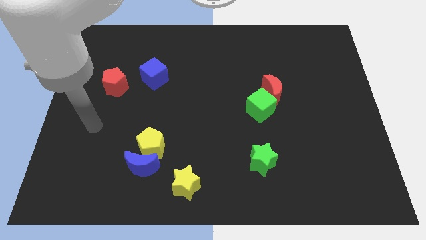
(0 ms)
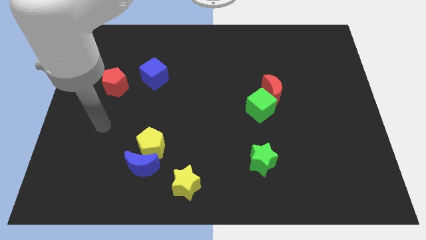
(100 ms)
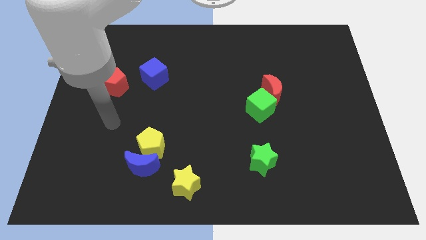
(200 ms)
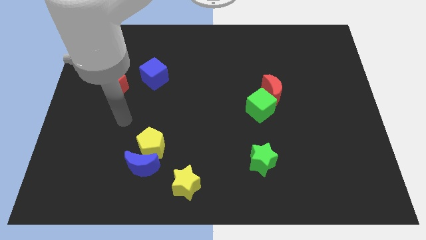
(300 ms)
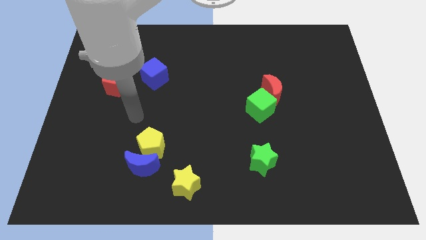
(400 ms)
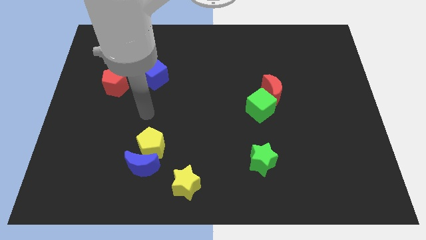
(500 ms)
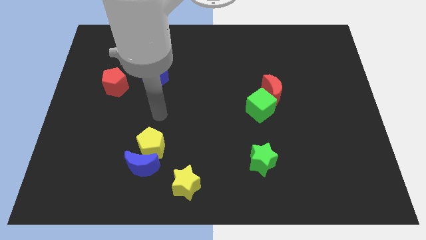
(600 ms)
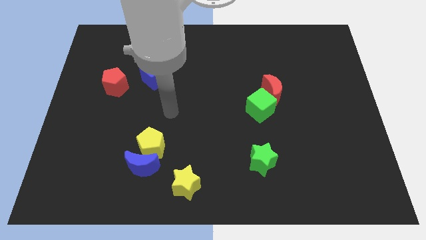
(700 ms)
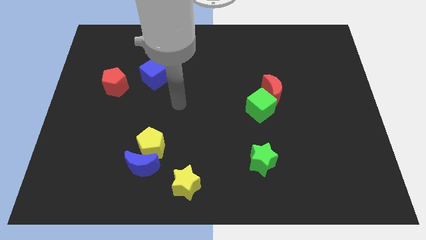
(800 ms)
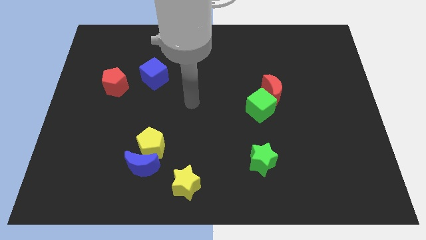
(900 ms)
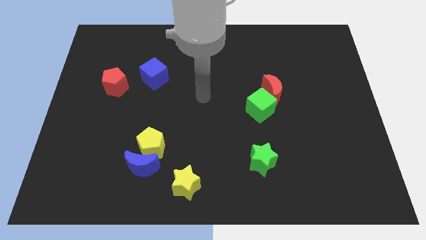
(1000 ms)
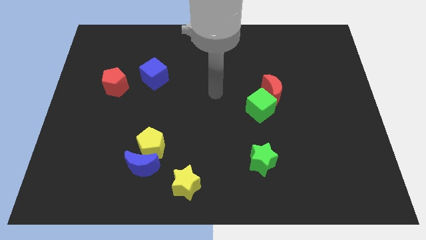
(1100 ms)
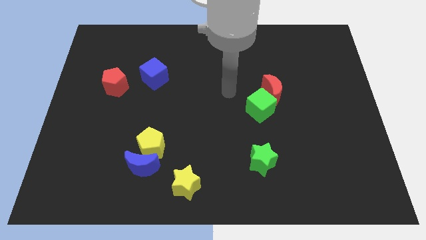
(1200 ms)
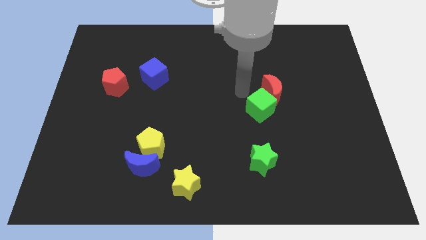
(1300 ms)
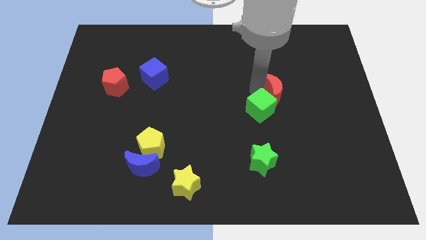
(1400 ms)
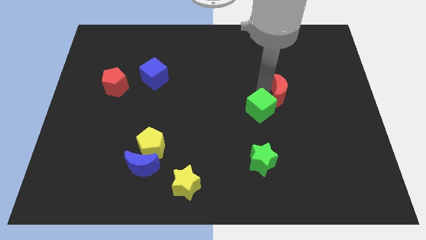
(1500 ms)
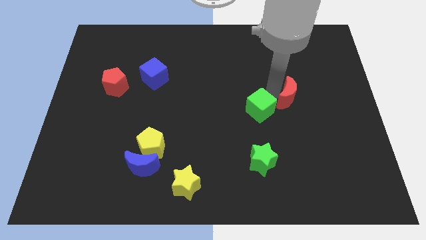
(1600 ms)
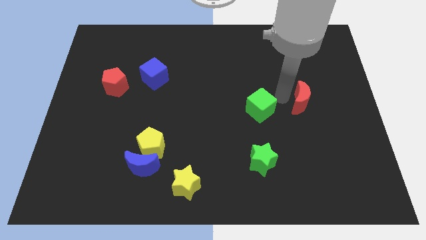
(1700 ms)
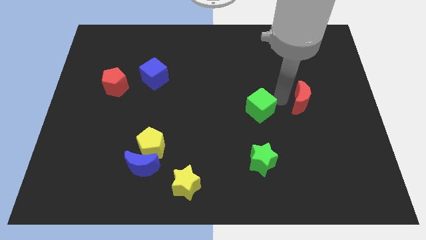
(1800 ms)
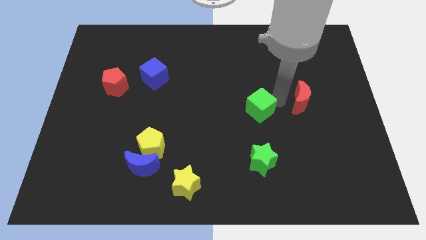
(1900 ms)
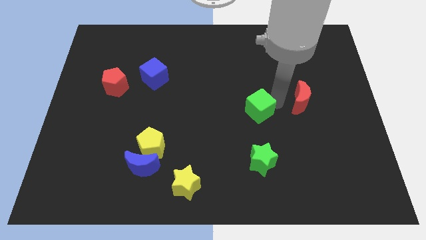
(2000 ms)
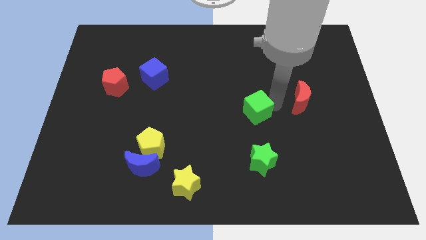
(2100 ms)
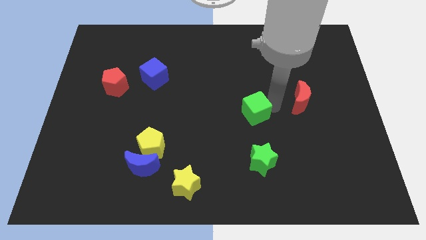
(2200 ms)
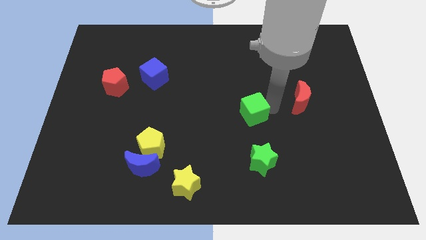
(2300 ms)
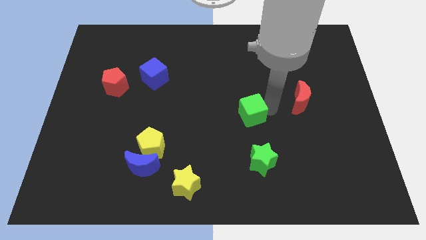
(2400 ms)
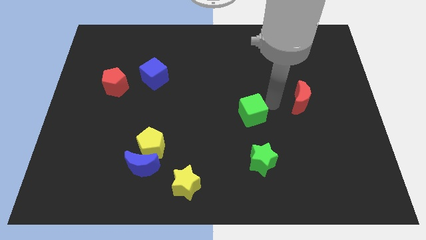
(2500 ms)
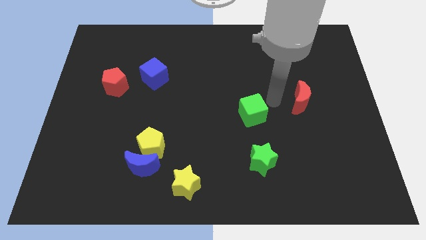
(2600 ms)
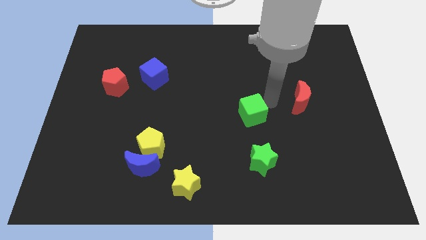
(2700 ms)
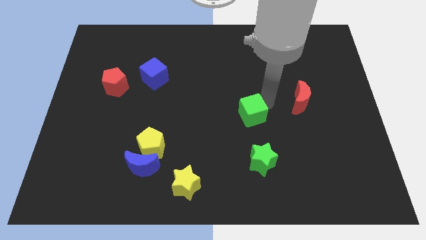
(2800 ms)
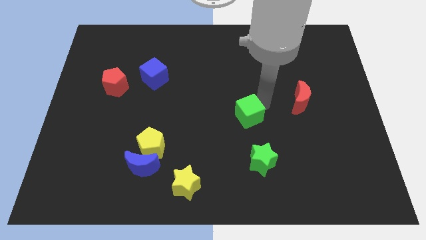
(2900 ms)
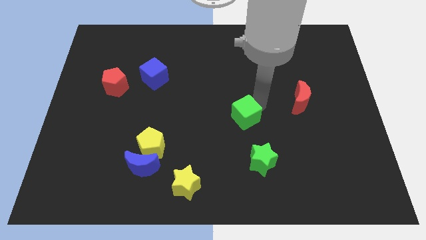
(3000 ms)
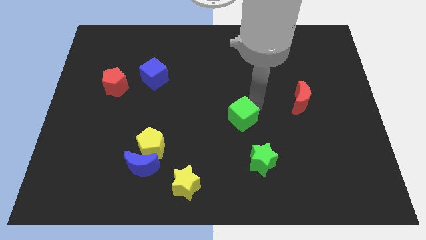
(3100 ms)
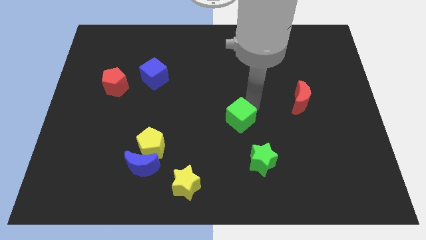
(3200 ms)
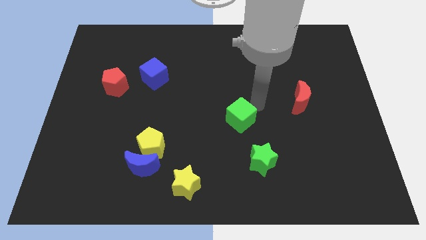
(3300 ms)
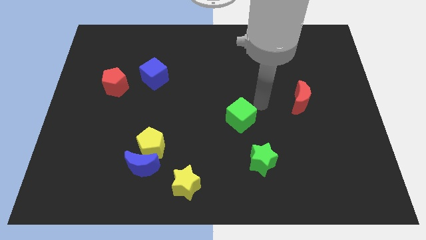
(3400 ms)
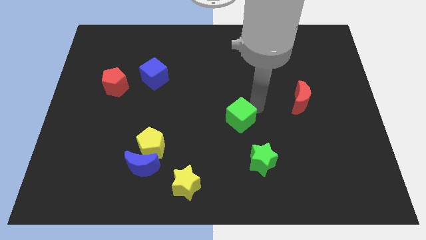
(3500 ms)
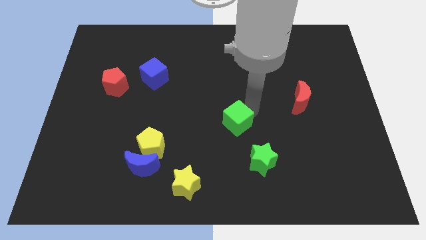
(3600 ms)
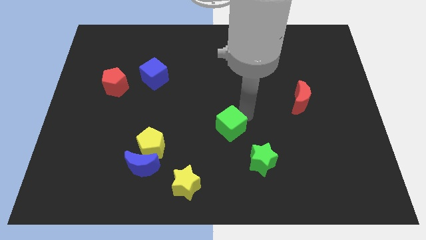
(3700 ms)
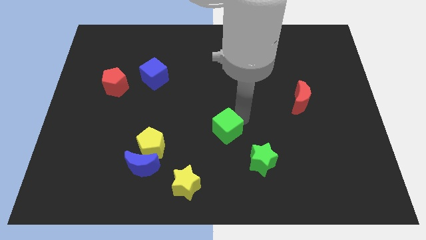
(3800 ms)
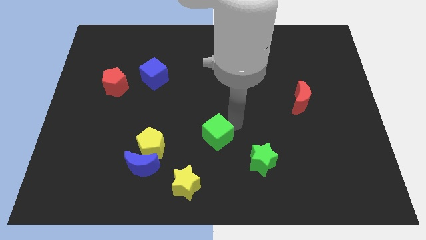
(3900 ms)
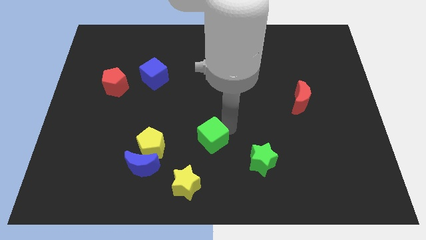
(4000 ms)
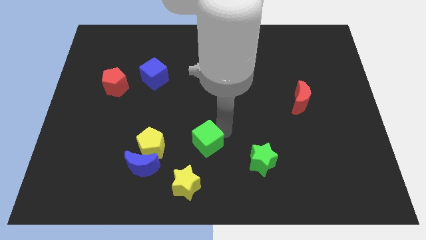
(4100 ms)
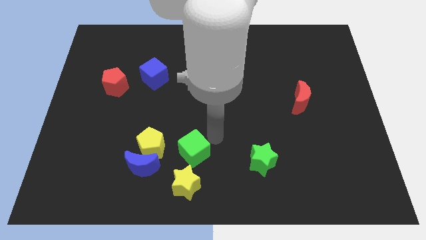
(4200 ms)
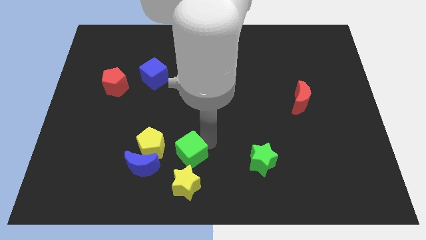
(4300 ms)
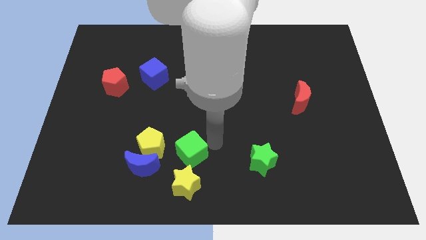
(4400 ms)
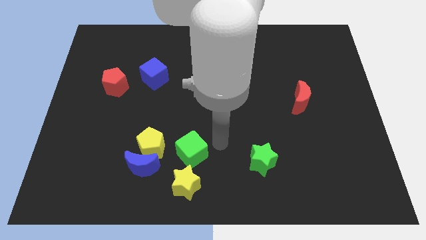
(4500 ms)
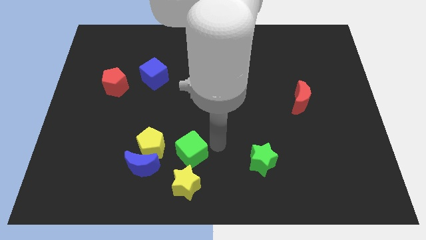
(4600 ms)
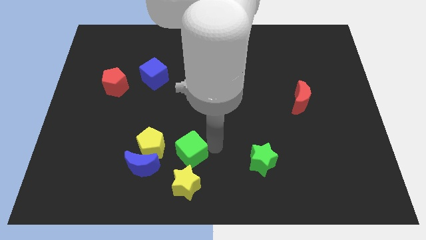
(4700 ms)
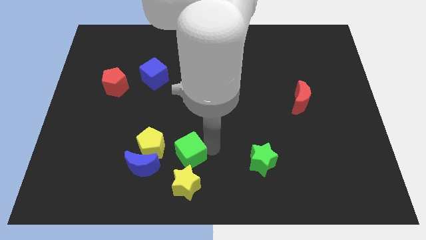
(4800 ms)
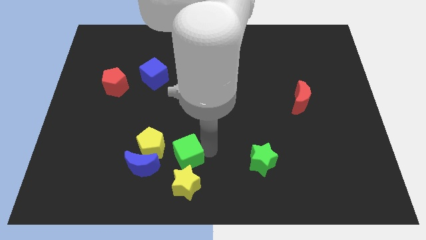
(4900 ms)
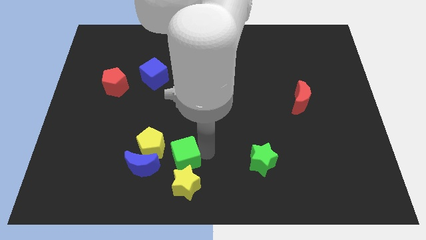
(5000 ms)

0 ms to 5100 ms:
put the green cube to the top left of the yellow star

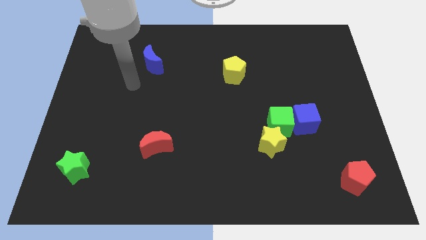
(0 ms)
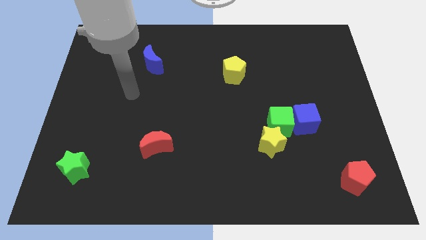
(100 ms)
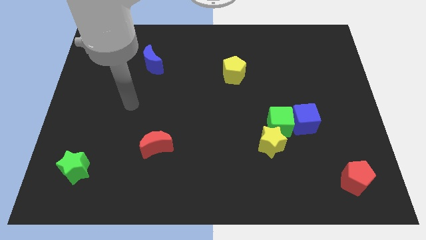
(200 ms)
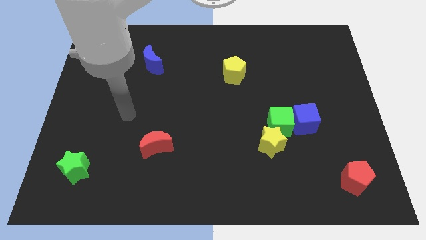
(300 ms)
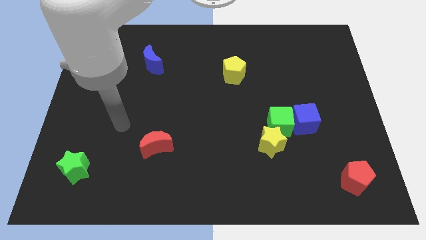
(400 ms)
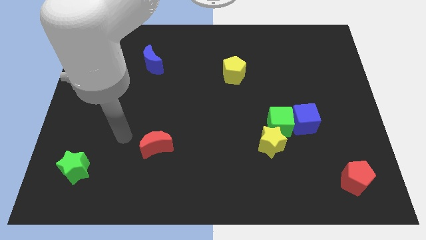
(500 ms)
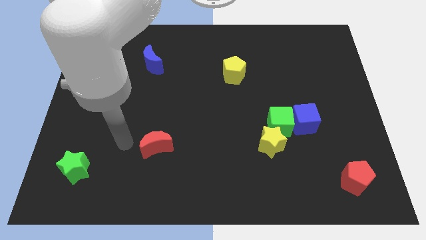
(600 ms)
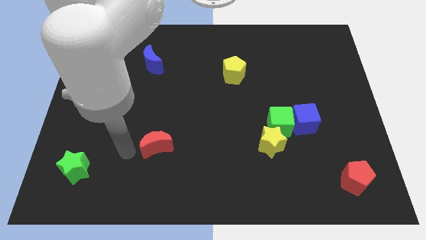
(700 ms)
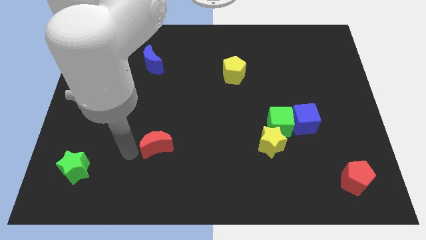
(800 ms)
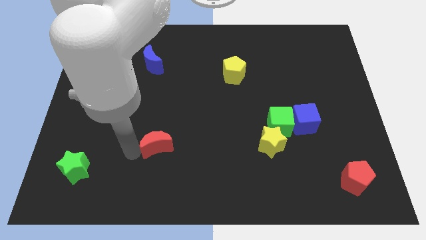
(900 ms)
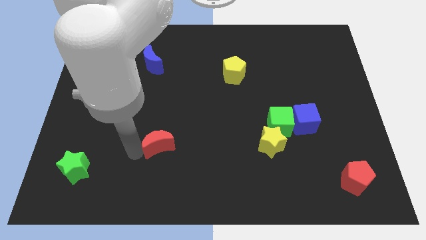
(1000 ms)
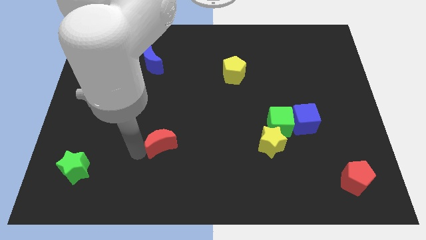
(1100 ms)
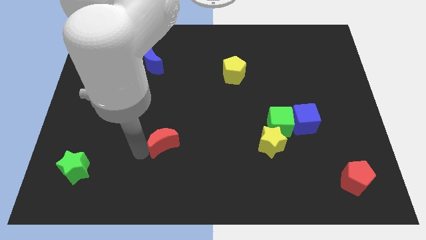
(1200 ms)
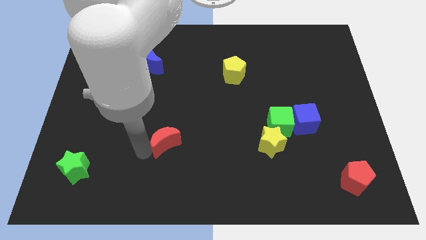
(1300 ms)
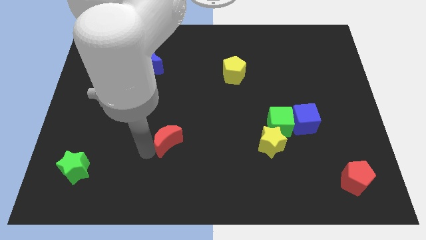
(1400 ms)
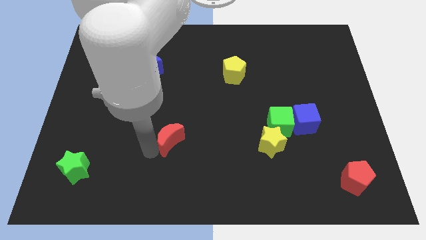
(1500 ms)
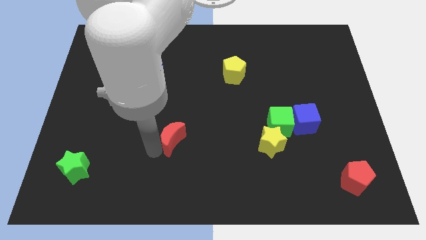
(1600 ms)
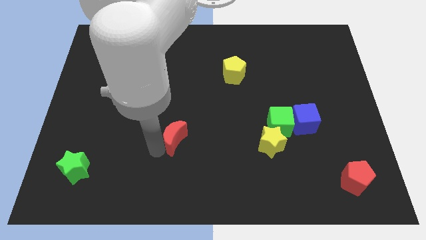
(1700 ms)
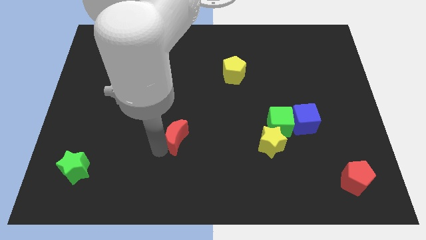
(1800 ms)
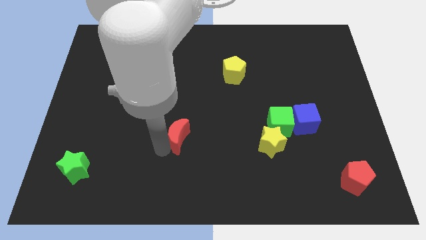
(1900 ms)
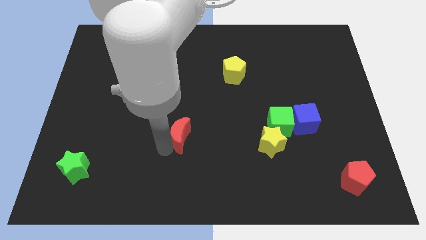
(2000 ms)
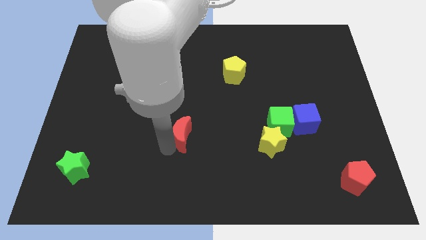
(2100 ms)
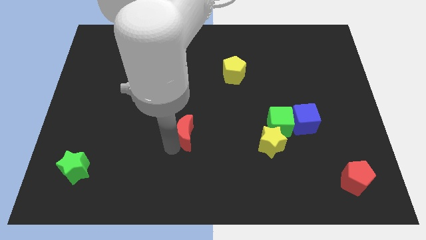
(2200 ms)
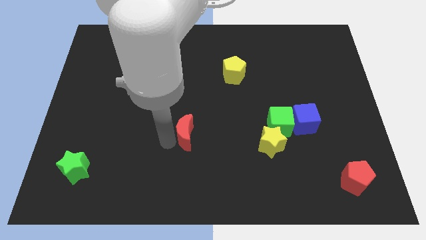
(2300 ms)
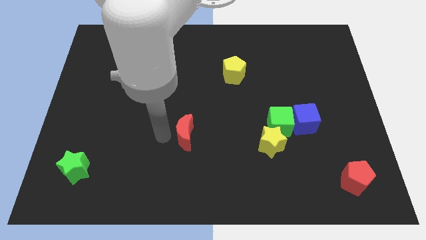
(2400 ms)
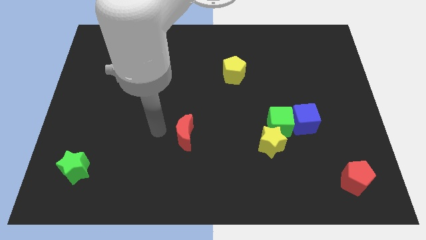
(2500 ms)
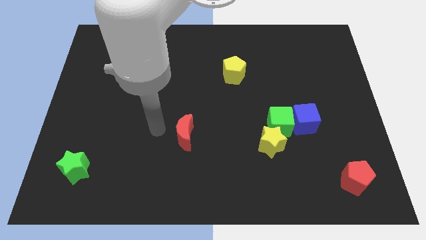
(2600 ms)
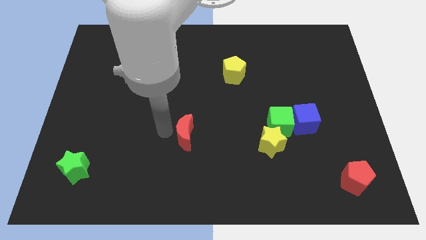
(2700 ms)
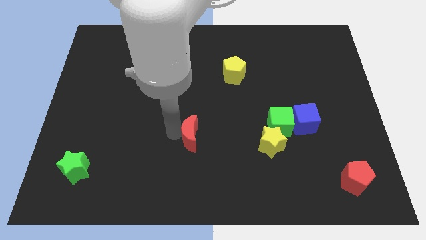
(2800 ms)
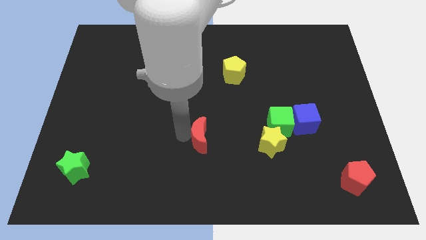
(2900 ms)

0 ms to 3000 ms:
move the red moon just left of the yellow star
